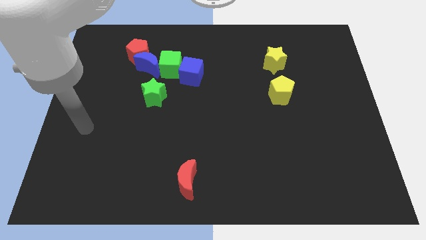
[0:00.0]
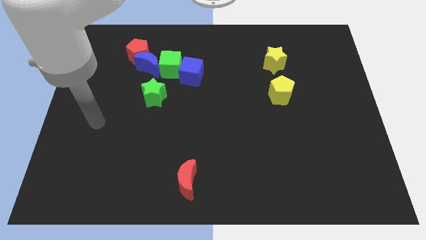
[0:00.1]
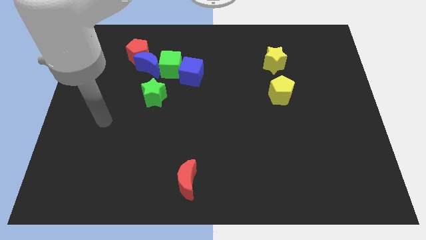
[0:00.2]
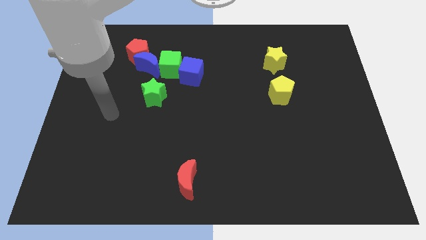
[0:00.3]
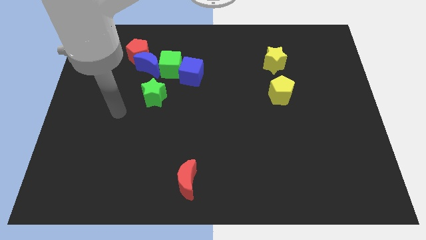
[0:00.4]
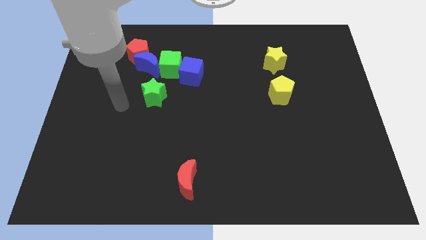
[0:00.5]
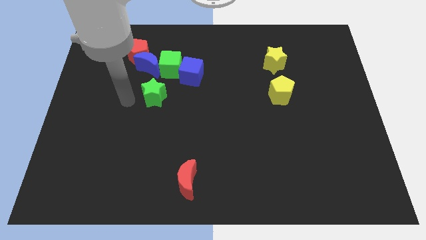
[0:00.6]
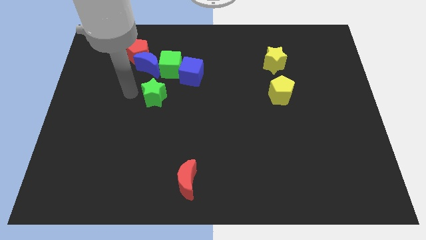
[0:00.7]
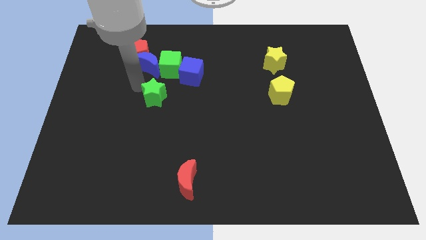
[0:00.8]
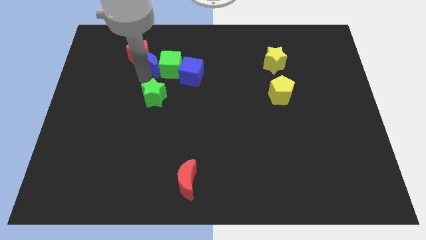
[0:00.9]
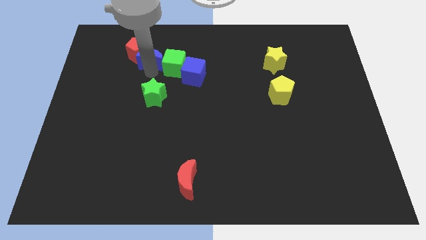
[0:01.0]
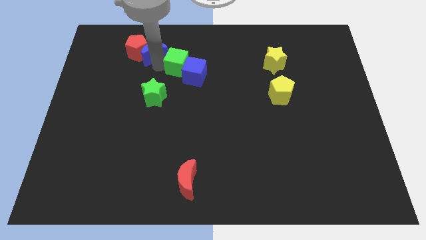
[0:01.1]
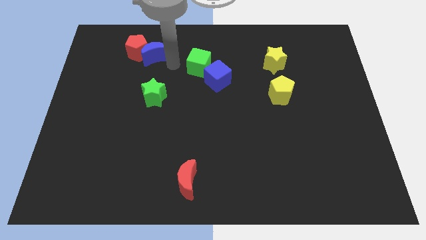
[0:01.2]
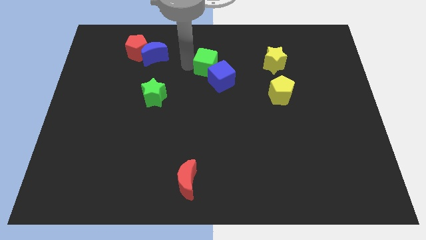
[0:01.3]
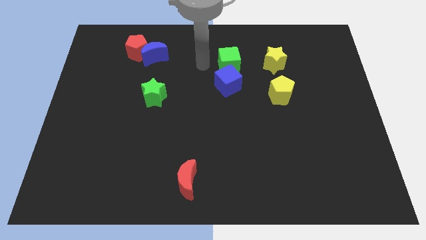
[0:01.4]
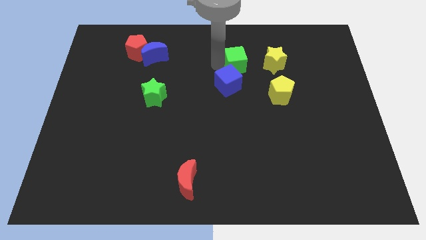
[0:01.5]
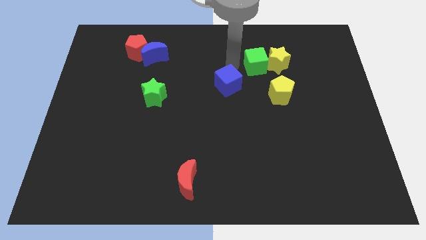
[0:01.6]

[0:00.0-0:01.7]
separate the blue cube from the green cube

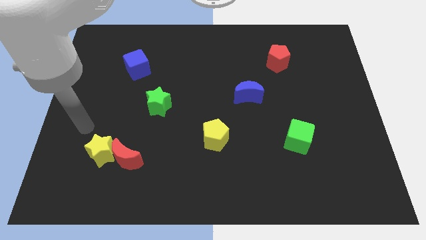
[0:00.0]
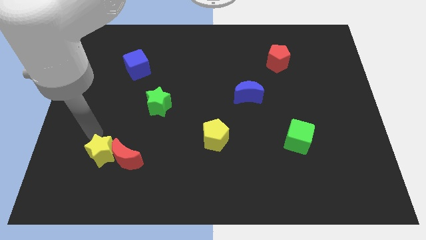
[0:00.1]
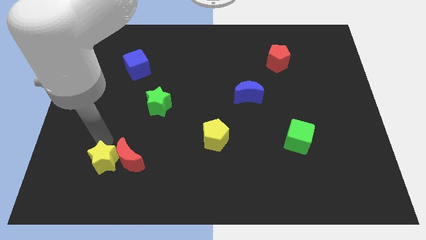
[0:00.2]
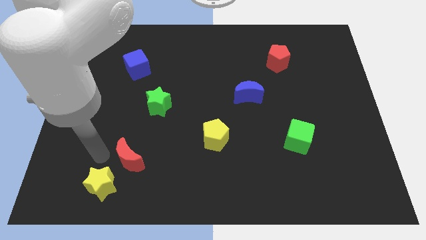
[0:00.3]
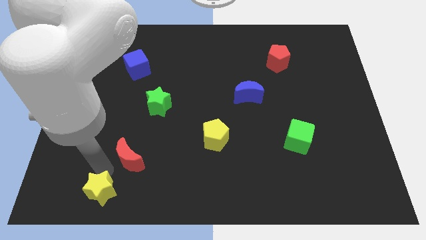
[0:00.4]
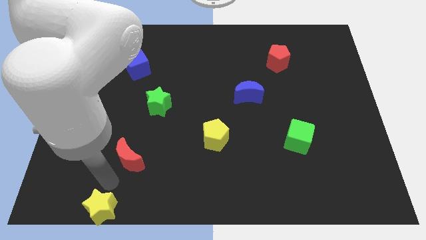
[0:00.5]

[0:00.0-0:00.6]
separate the red moon from the yellow star

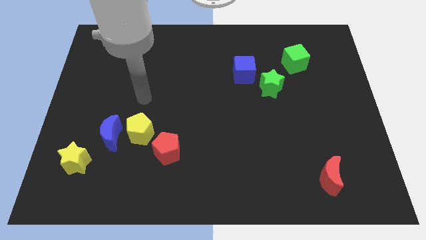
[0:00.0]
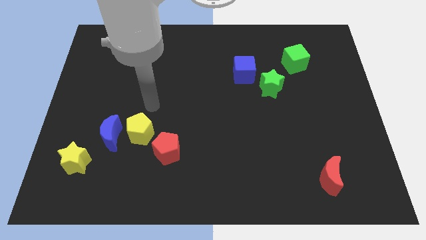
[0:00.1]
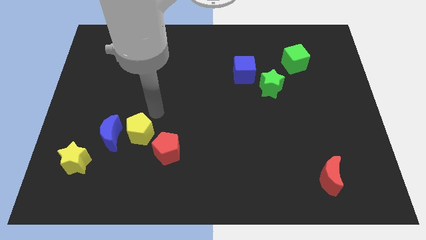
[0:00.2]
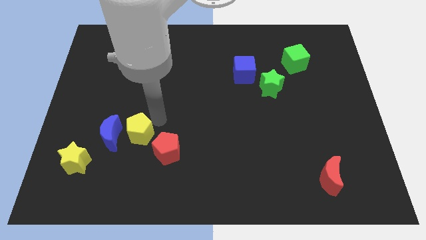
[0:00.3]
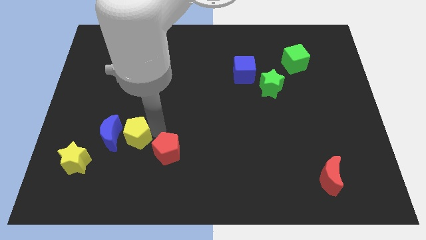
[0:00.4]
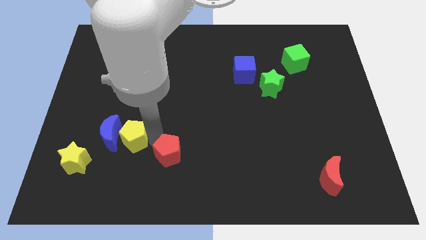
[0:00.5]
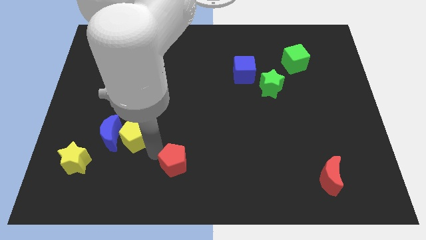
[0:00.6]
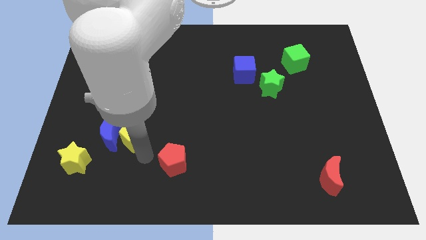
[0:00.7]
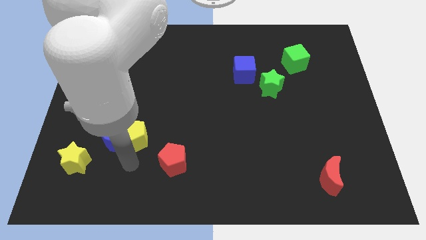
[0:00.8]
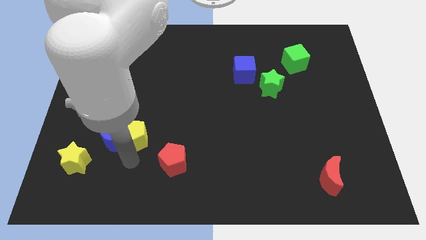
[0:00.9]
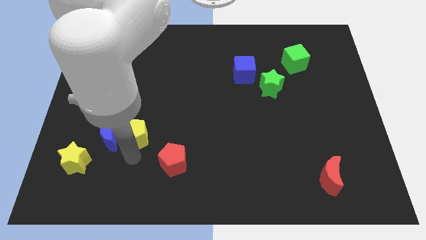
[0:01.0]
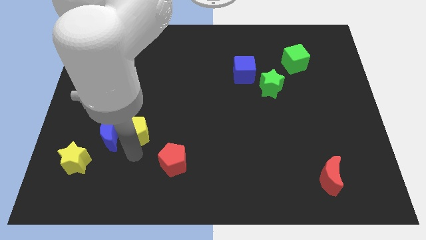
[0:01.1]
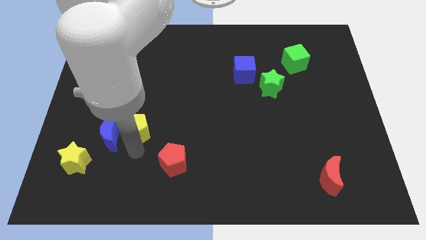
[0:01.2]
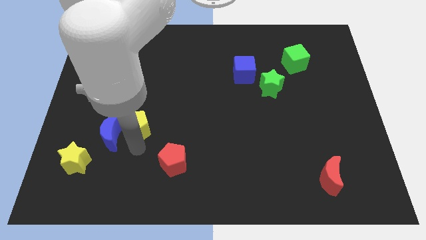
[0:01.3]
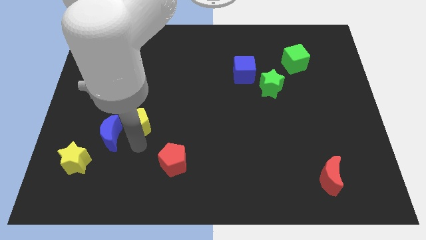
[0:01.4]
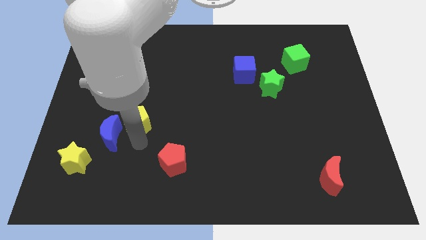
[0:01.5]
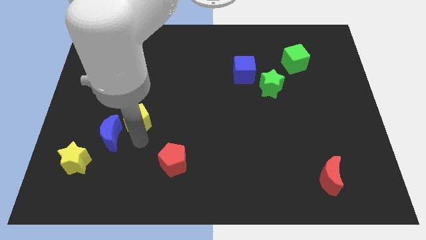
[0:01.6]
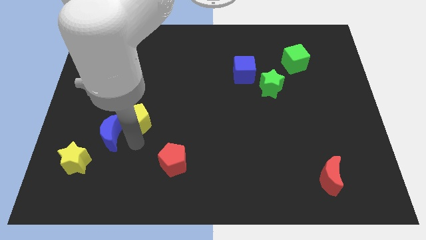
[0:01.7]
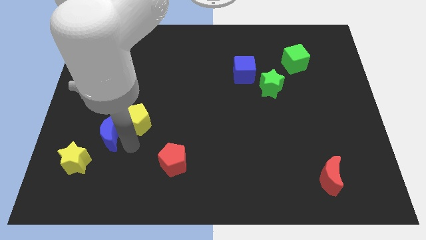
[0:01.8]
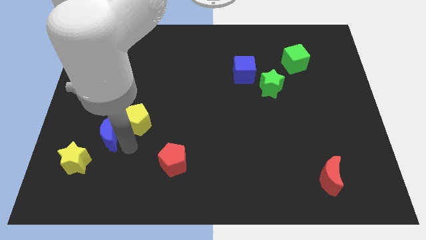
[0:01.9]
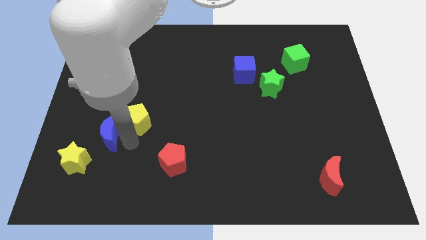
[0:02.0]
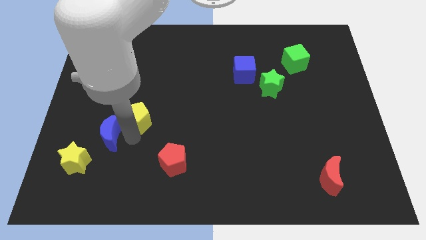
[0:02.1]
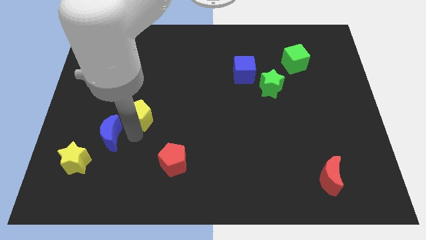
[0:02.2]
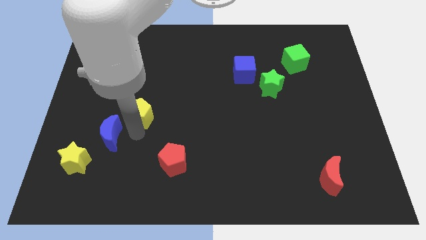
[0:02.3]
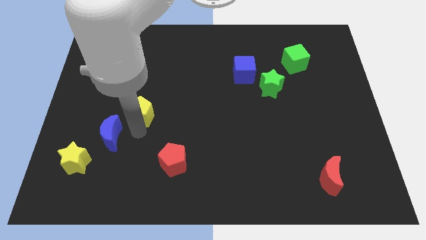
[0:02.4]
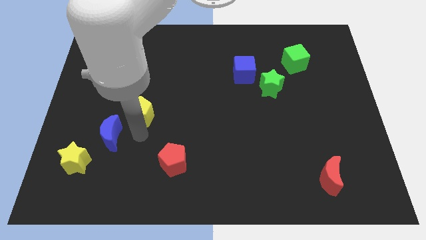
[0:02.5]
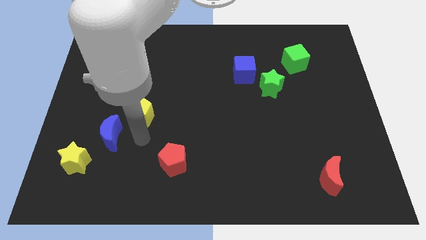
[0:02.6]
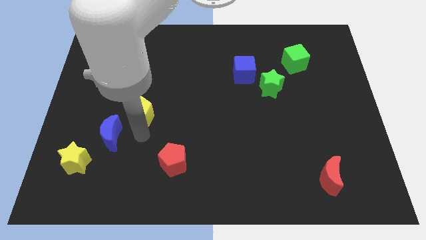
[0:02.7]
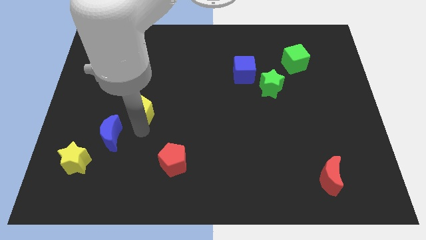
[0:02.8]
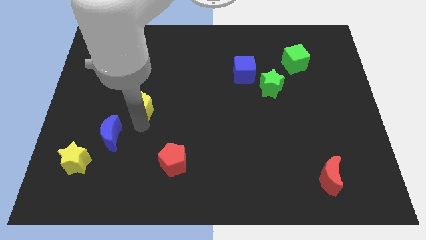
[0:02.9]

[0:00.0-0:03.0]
move the yellow pentagon away from the blue moon and red pentagon

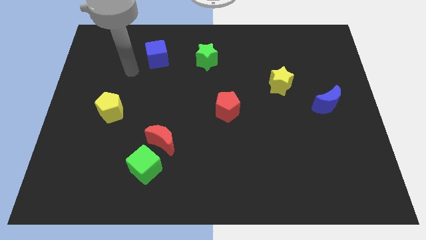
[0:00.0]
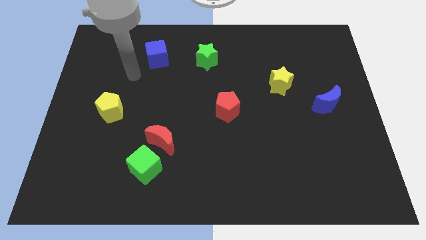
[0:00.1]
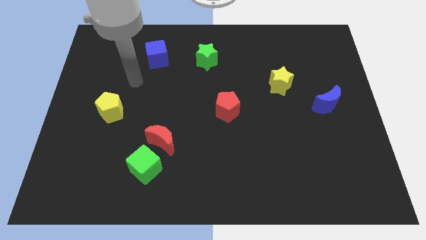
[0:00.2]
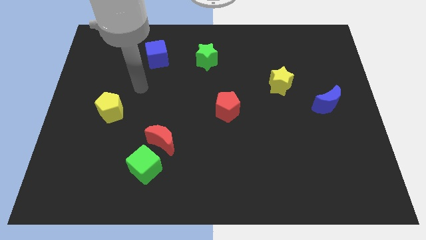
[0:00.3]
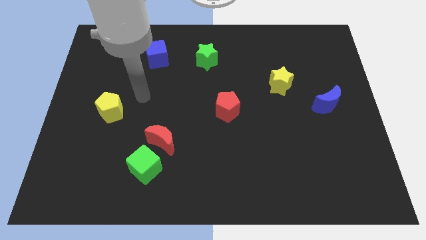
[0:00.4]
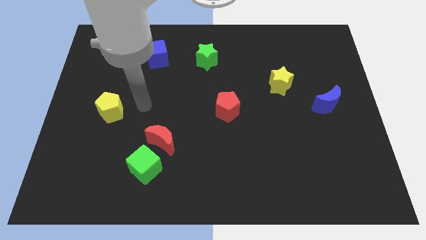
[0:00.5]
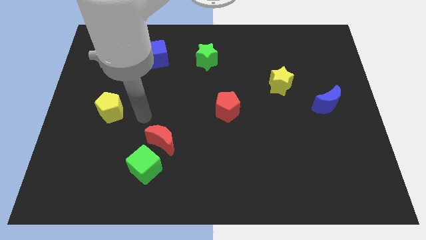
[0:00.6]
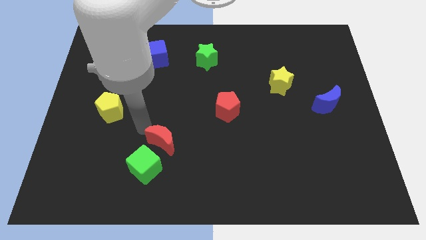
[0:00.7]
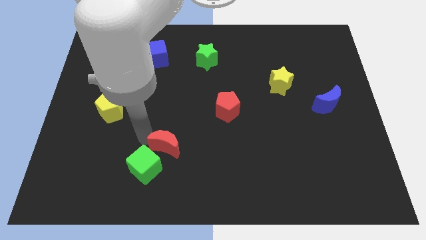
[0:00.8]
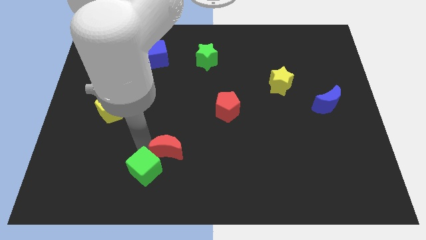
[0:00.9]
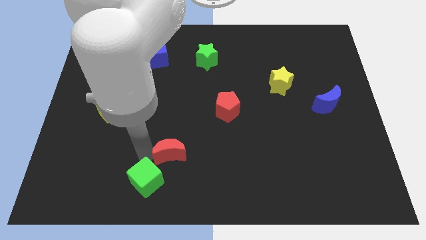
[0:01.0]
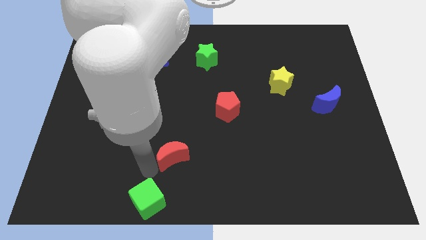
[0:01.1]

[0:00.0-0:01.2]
pull the red moon apart from the green cube

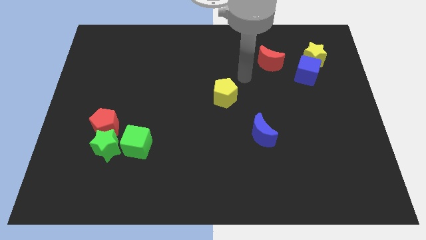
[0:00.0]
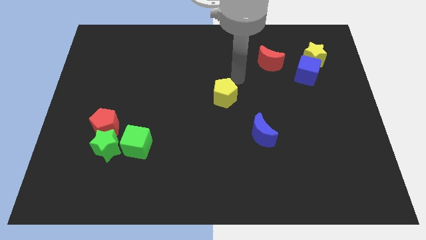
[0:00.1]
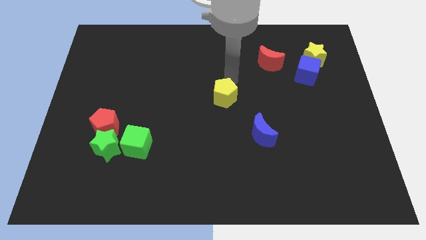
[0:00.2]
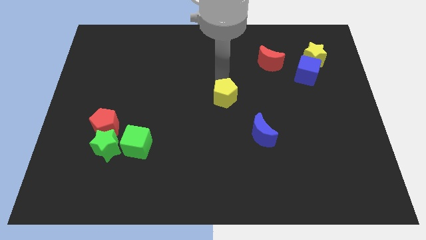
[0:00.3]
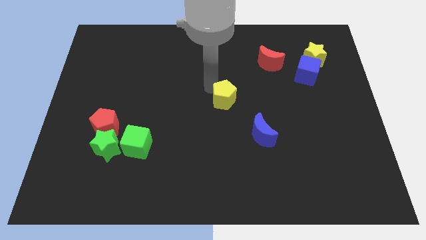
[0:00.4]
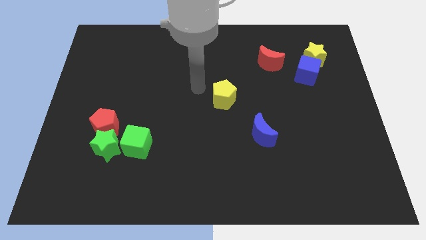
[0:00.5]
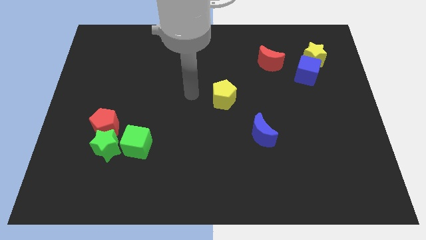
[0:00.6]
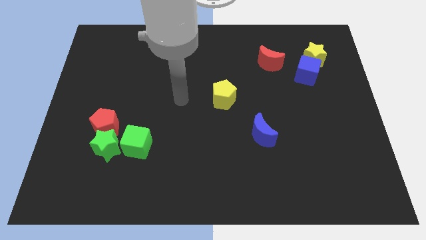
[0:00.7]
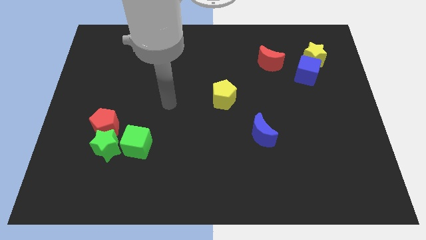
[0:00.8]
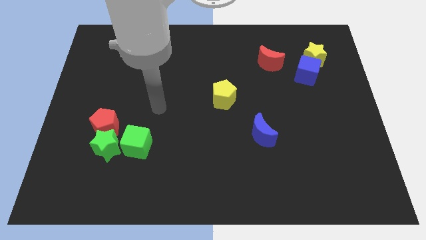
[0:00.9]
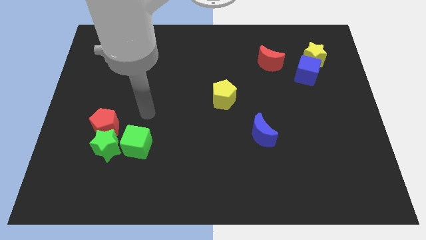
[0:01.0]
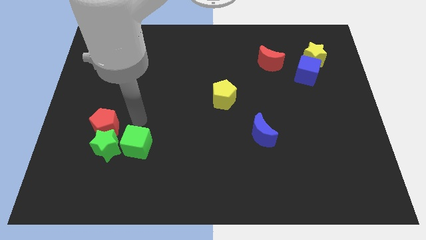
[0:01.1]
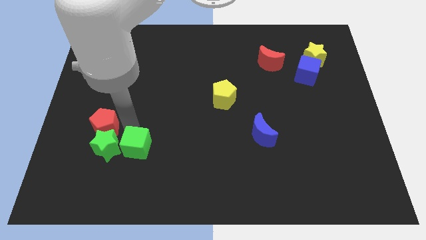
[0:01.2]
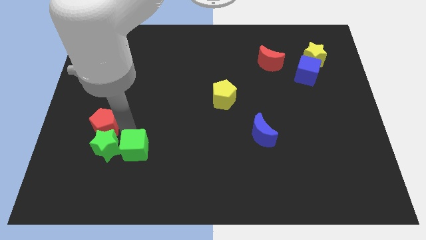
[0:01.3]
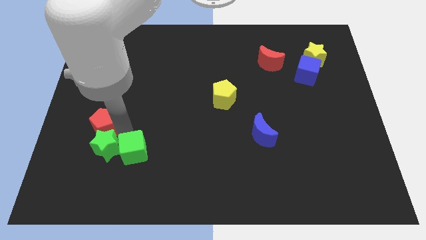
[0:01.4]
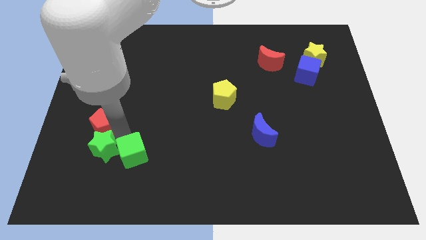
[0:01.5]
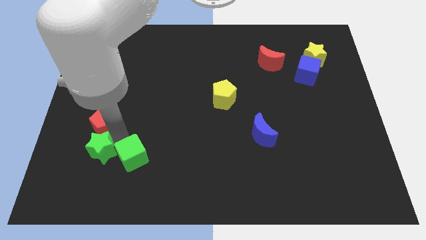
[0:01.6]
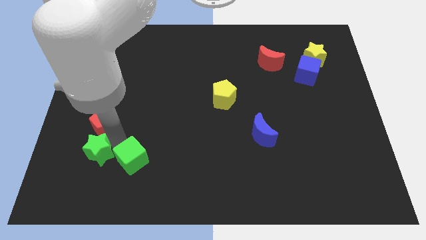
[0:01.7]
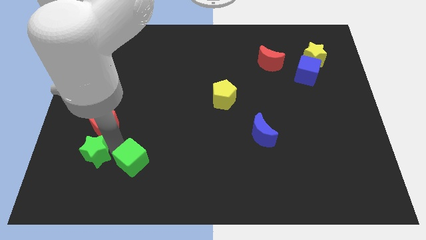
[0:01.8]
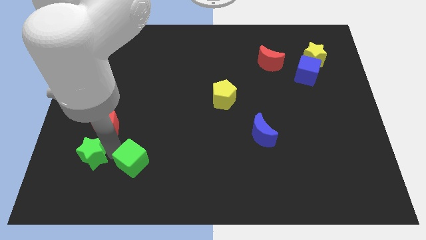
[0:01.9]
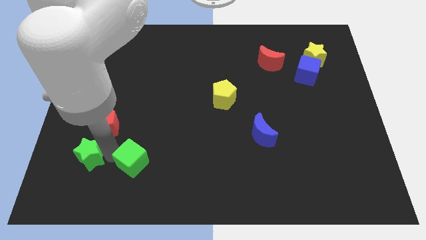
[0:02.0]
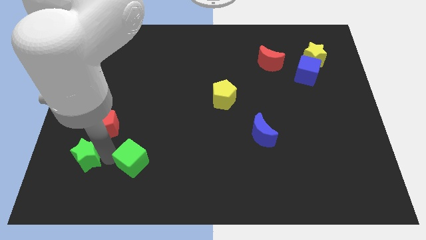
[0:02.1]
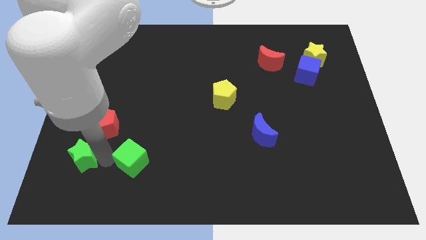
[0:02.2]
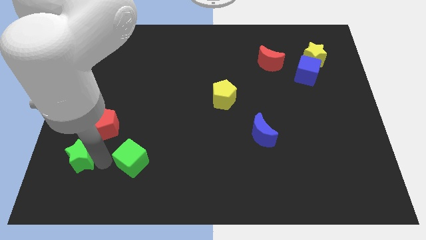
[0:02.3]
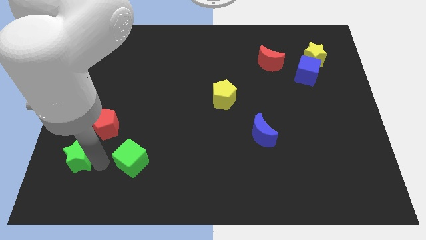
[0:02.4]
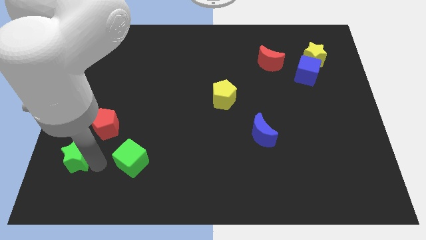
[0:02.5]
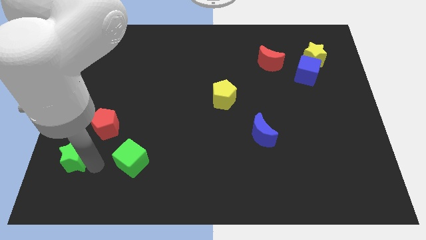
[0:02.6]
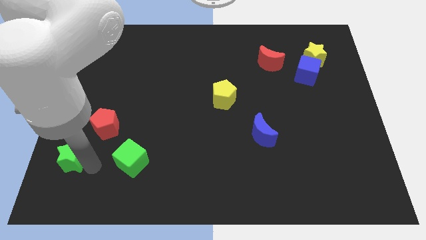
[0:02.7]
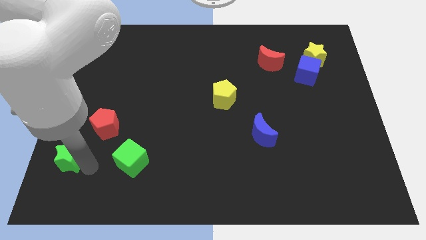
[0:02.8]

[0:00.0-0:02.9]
pull the green star apart from the red pentagon and green cube
